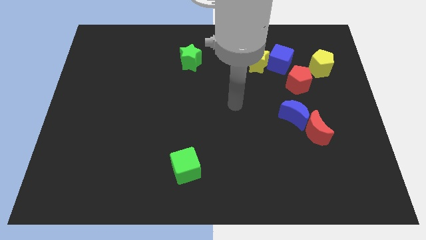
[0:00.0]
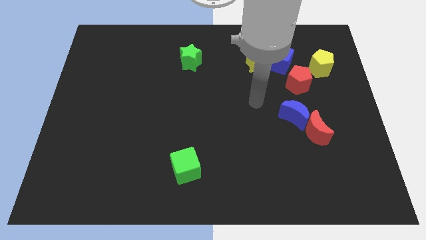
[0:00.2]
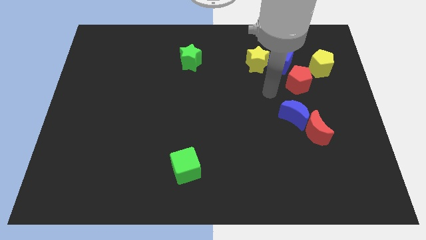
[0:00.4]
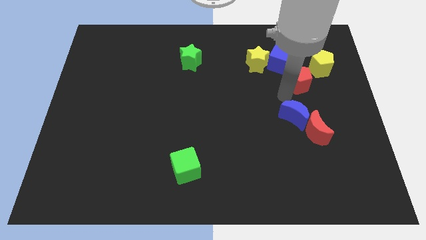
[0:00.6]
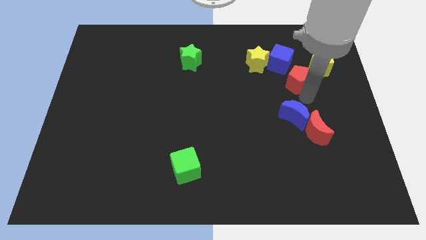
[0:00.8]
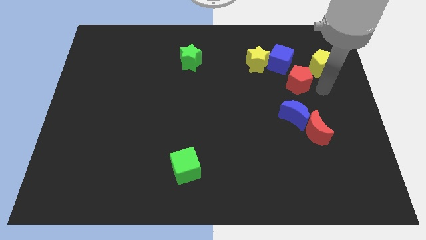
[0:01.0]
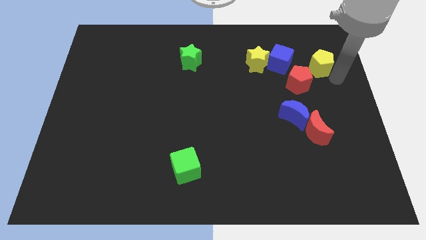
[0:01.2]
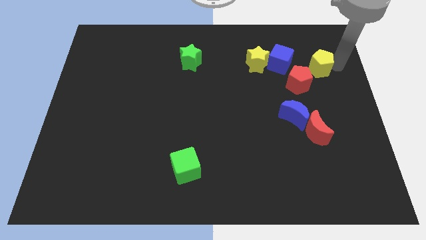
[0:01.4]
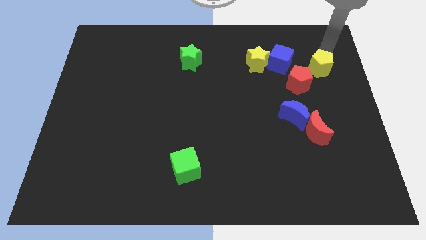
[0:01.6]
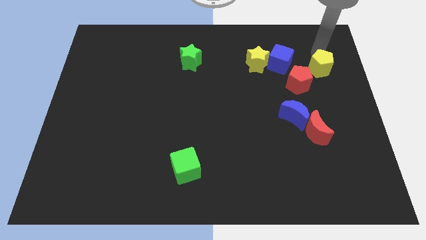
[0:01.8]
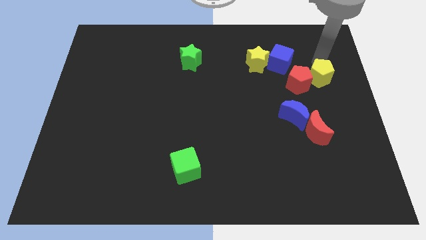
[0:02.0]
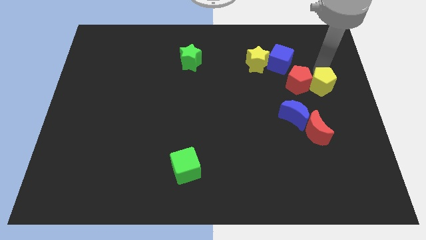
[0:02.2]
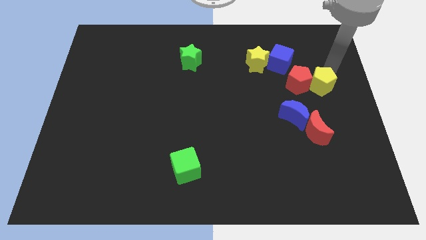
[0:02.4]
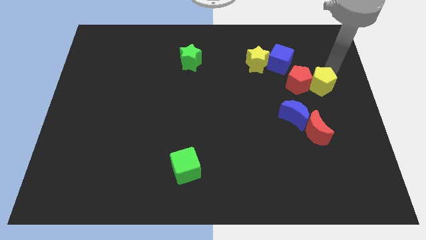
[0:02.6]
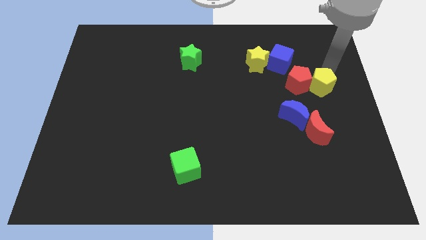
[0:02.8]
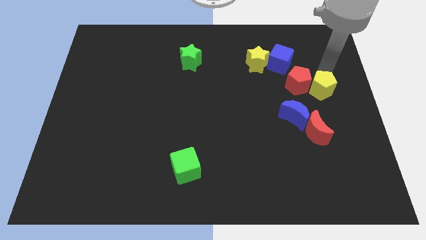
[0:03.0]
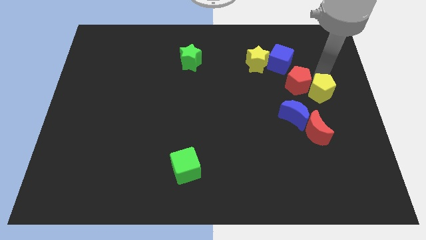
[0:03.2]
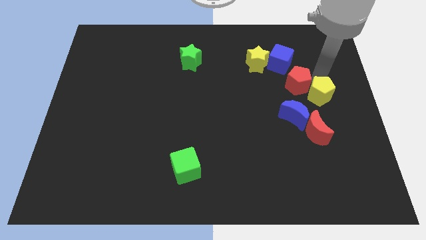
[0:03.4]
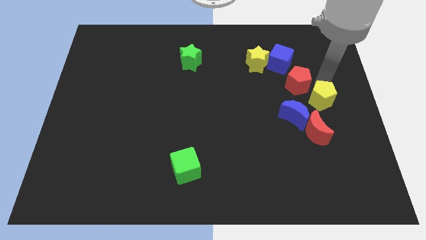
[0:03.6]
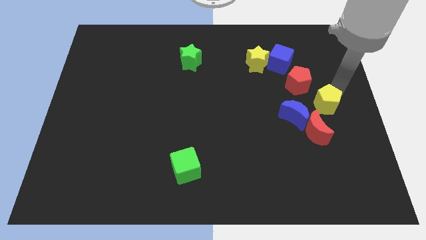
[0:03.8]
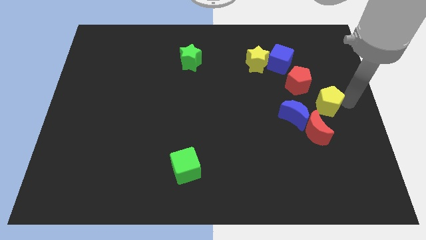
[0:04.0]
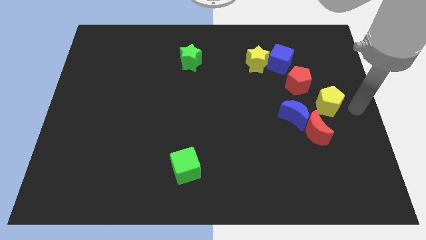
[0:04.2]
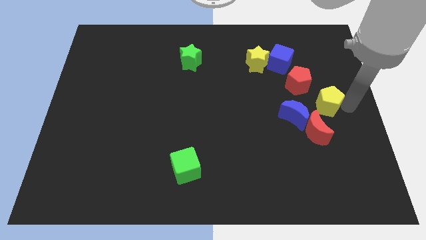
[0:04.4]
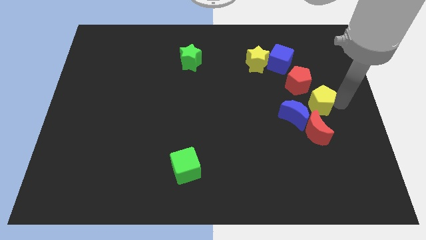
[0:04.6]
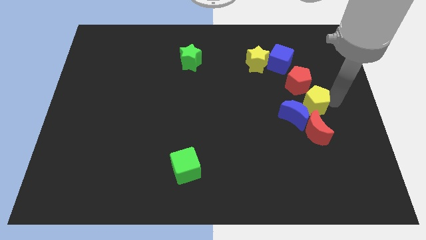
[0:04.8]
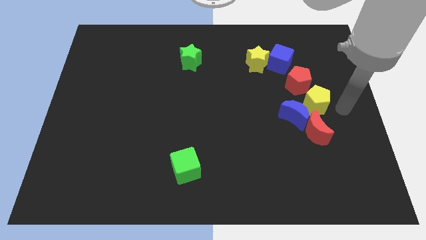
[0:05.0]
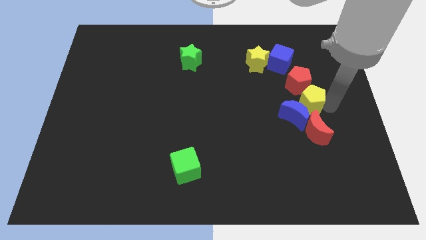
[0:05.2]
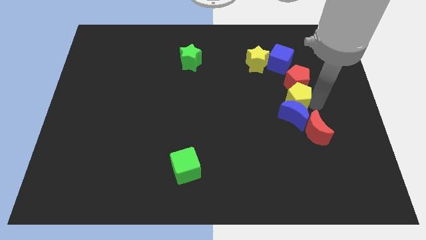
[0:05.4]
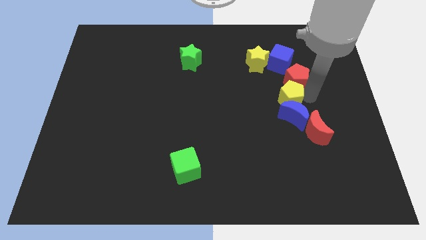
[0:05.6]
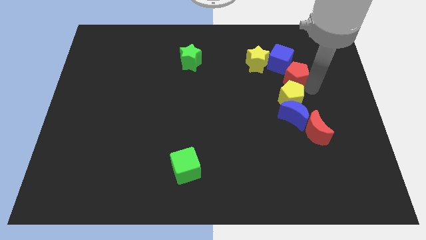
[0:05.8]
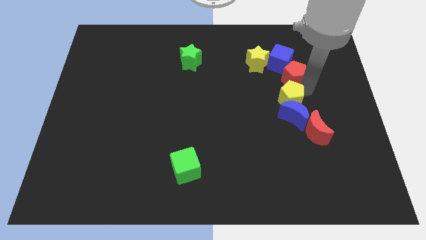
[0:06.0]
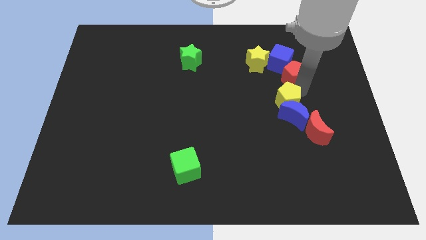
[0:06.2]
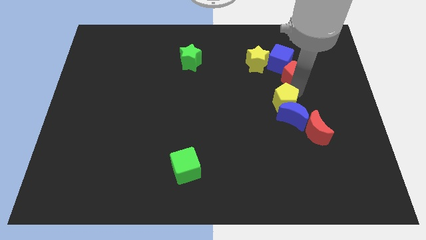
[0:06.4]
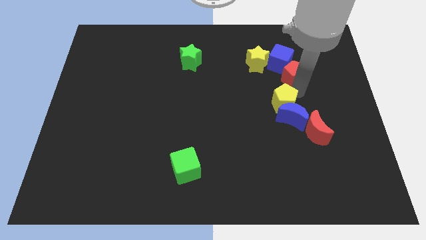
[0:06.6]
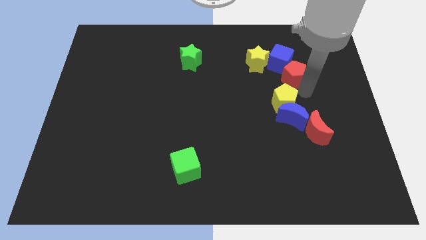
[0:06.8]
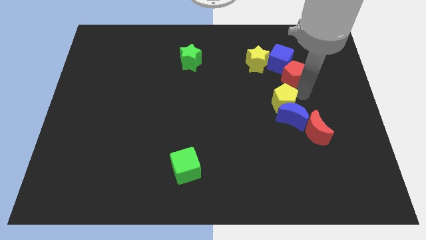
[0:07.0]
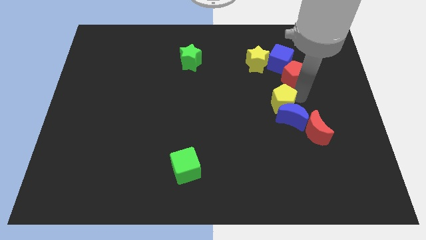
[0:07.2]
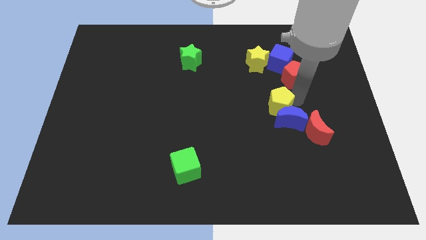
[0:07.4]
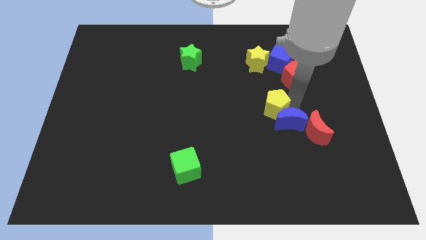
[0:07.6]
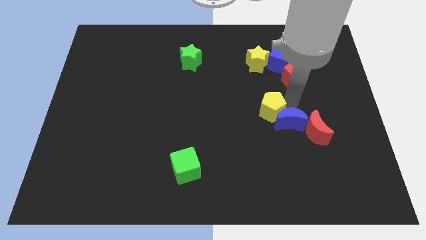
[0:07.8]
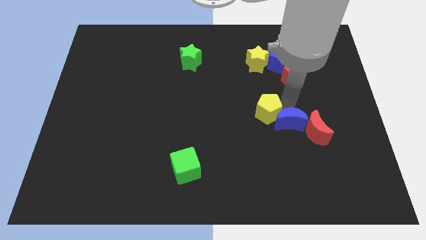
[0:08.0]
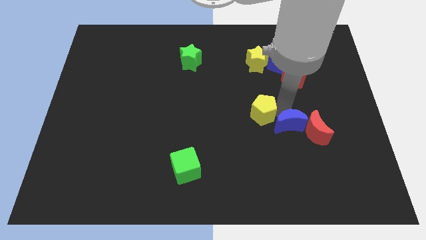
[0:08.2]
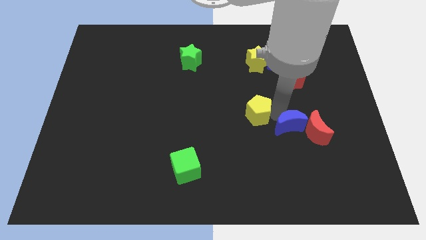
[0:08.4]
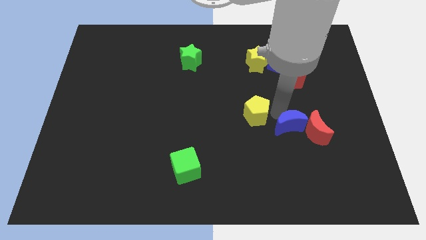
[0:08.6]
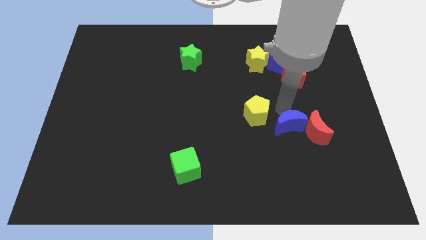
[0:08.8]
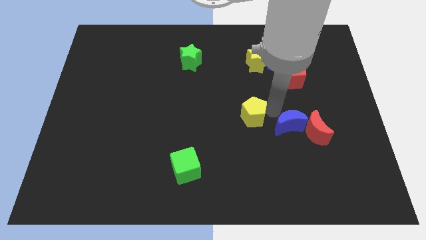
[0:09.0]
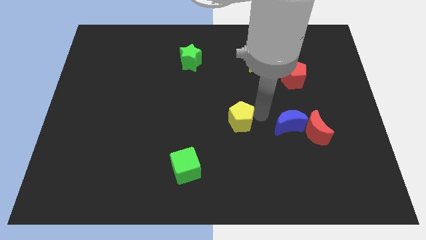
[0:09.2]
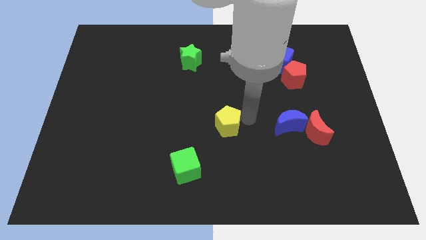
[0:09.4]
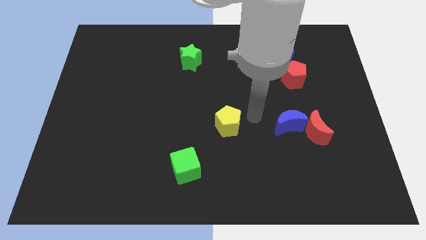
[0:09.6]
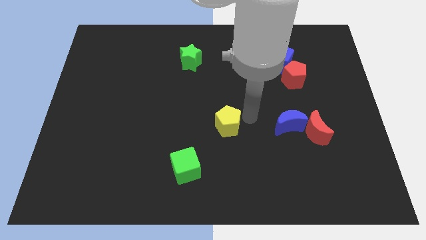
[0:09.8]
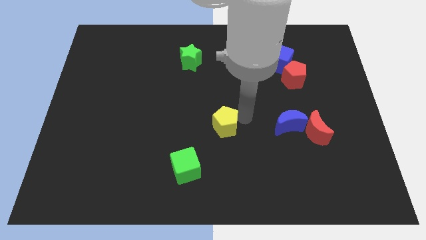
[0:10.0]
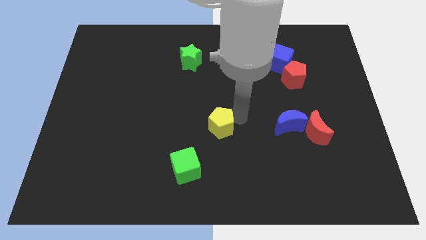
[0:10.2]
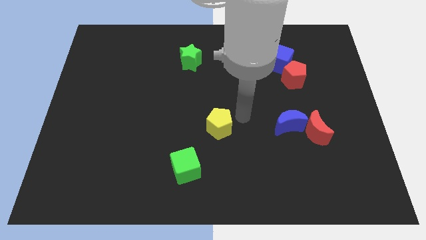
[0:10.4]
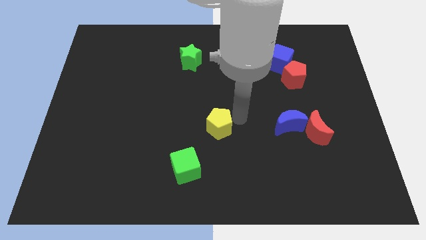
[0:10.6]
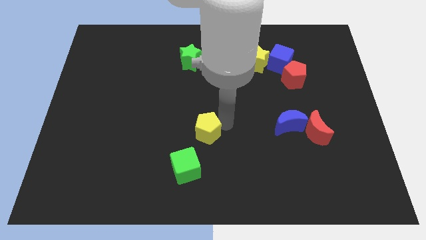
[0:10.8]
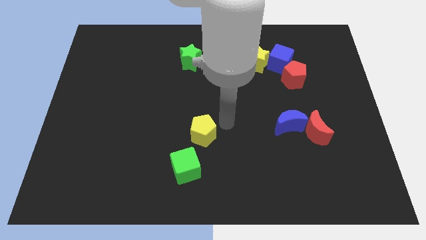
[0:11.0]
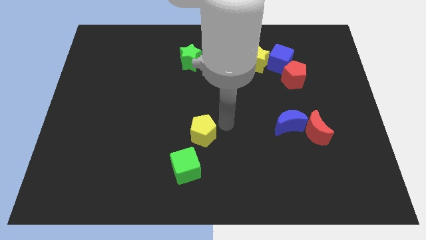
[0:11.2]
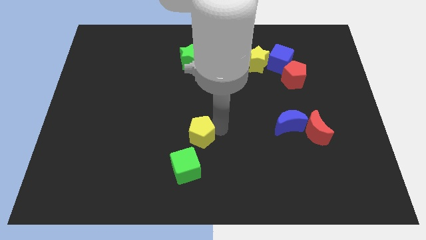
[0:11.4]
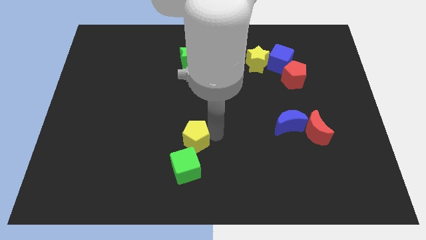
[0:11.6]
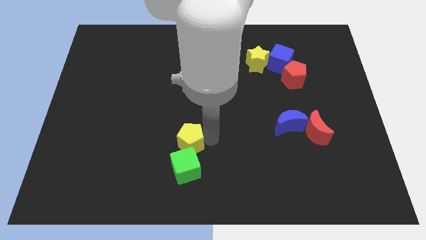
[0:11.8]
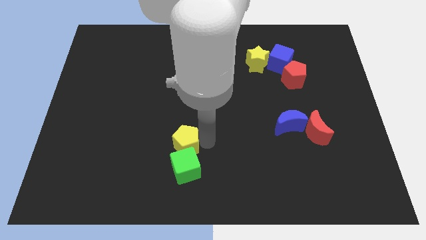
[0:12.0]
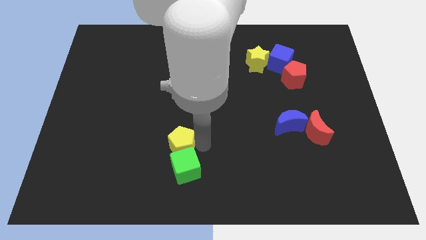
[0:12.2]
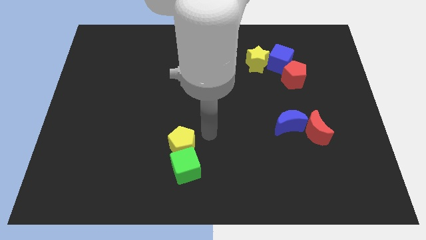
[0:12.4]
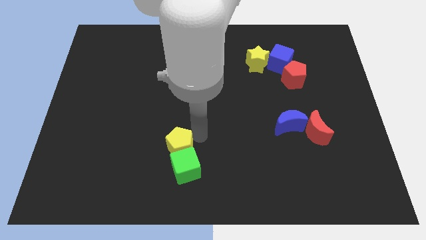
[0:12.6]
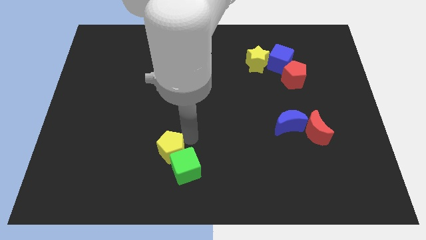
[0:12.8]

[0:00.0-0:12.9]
push the yellow pentagon to the left side of the green cube
